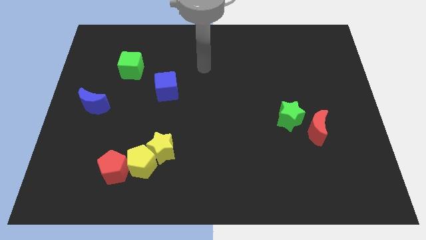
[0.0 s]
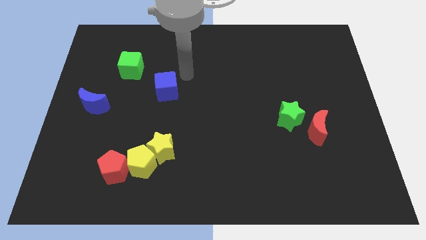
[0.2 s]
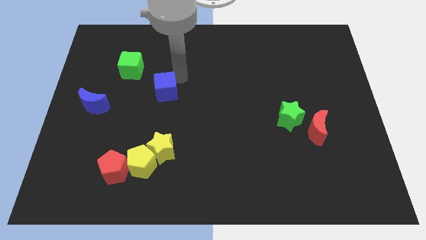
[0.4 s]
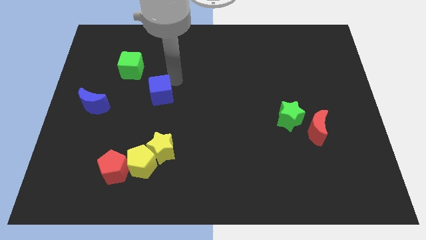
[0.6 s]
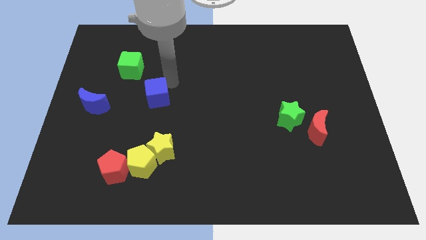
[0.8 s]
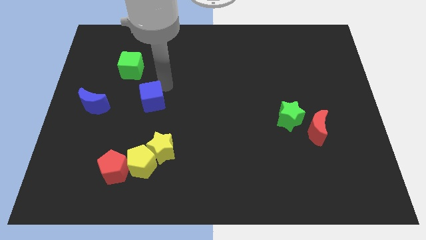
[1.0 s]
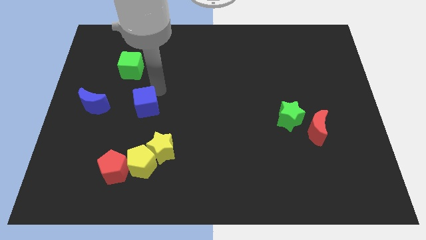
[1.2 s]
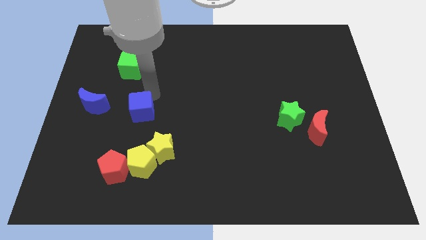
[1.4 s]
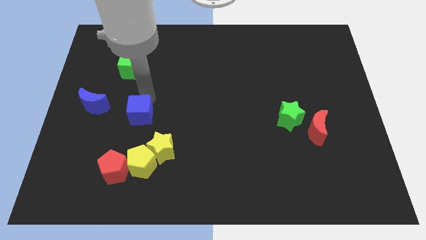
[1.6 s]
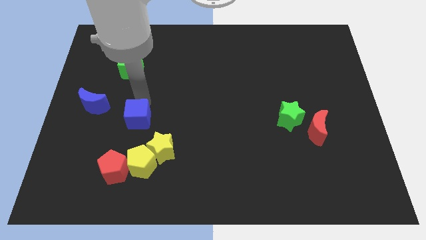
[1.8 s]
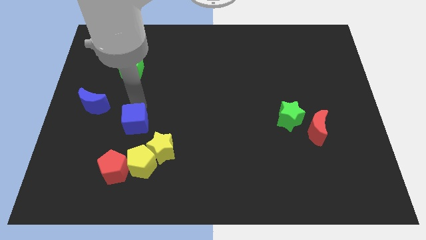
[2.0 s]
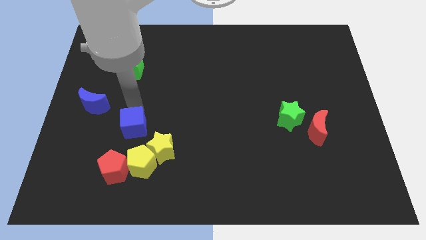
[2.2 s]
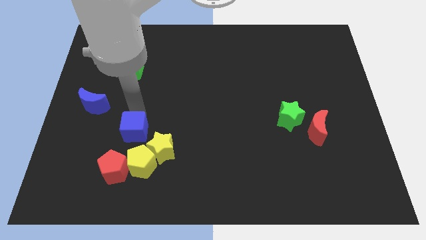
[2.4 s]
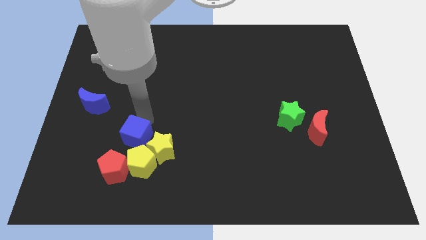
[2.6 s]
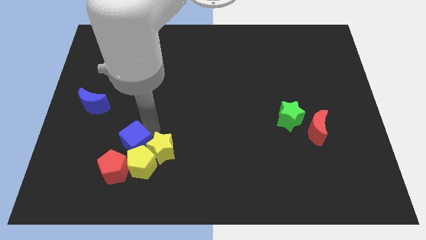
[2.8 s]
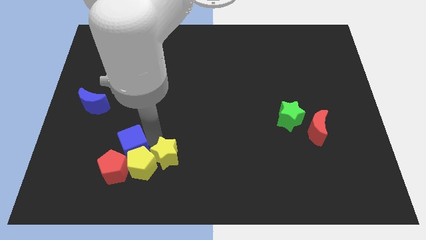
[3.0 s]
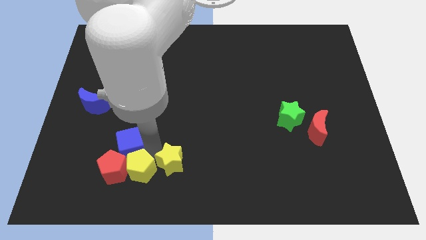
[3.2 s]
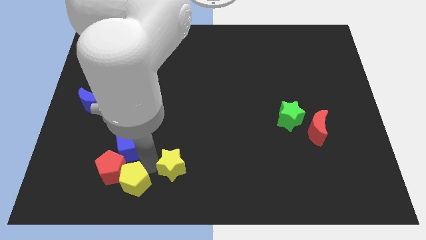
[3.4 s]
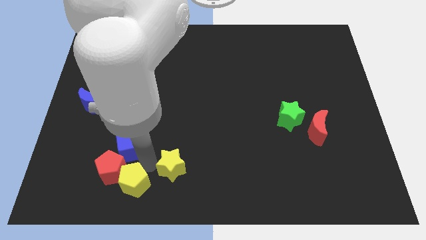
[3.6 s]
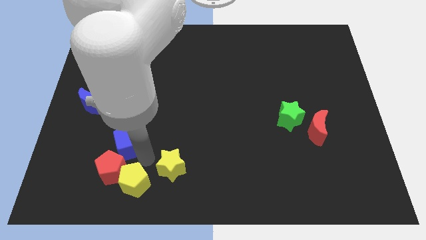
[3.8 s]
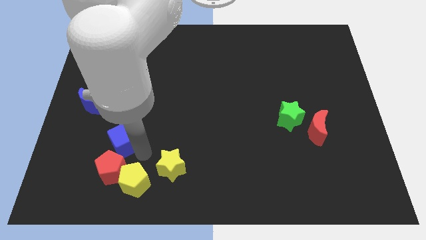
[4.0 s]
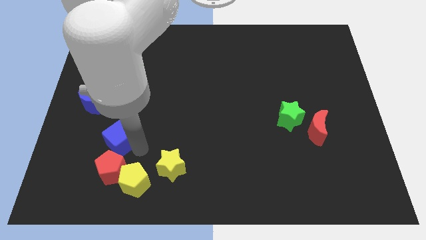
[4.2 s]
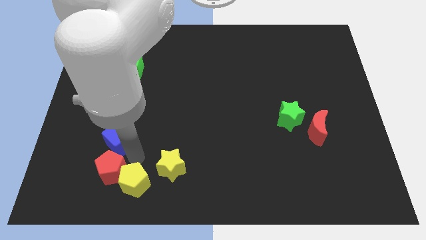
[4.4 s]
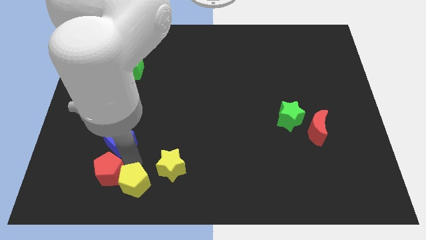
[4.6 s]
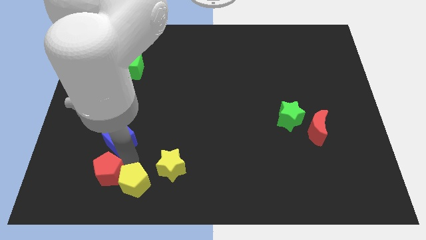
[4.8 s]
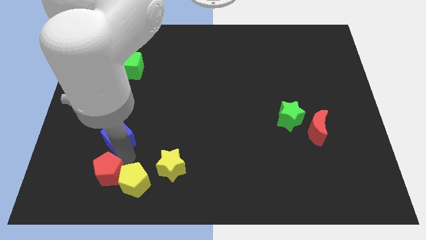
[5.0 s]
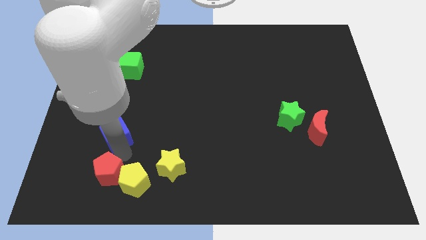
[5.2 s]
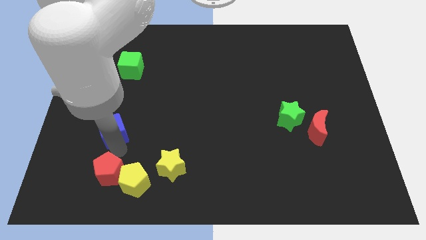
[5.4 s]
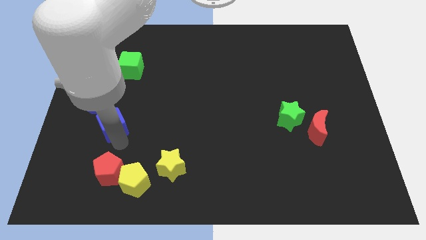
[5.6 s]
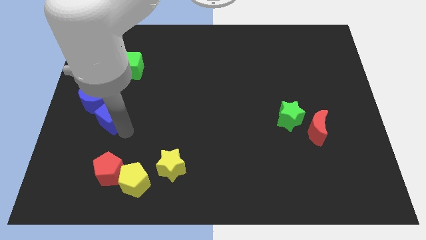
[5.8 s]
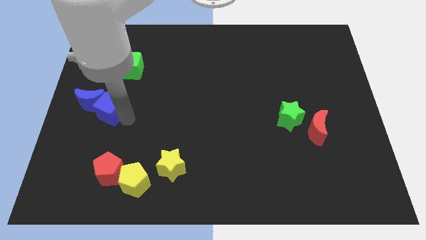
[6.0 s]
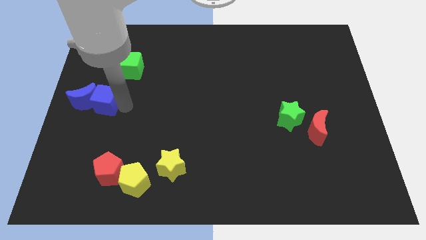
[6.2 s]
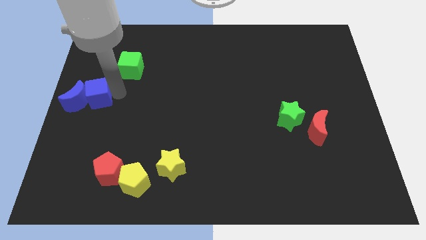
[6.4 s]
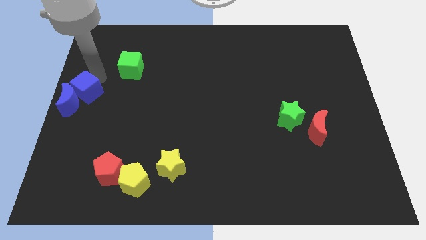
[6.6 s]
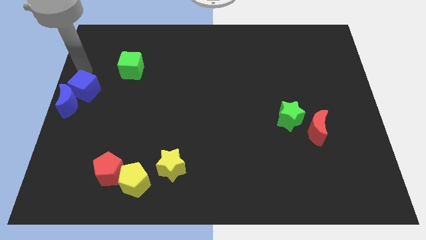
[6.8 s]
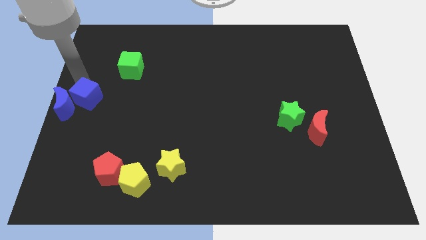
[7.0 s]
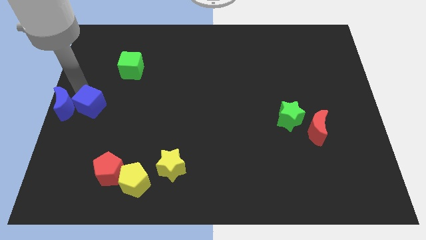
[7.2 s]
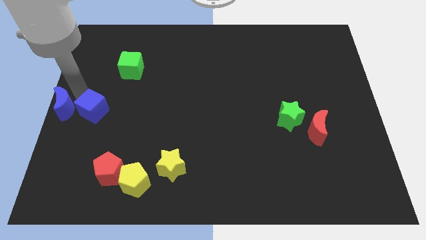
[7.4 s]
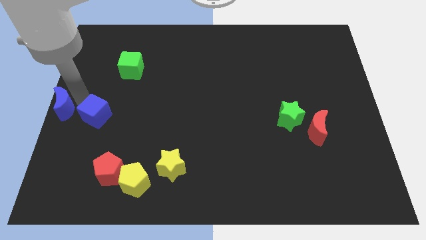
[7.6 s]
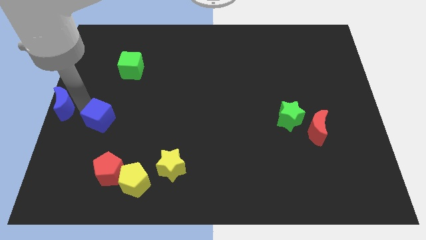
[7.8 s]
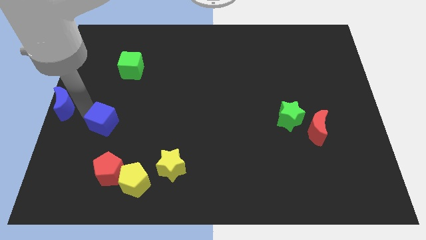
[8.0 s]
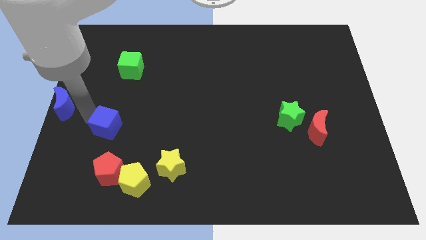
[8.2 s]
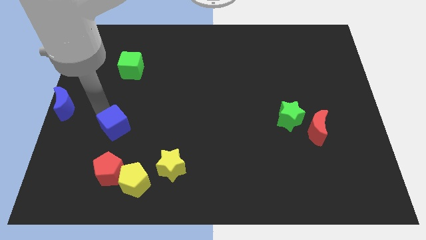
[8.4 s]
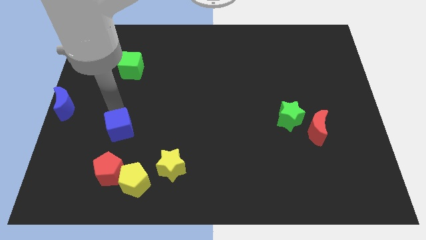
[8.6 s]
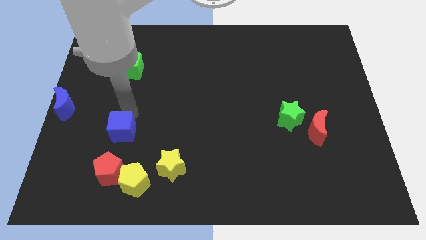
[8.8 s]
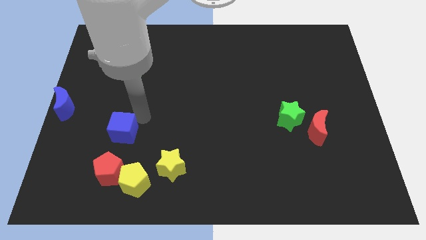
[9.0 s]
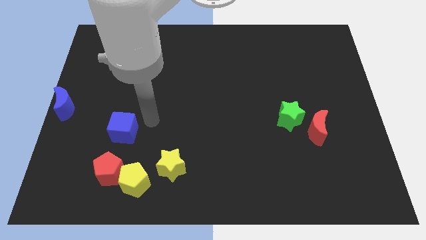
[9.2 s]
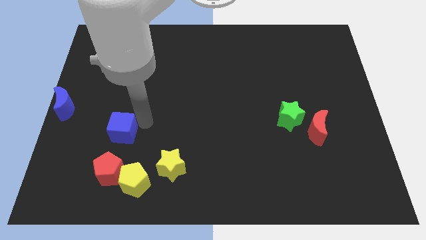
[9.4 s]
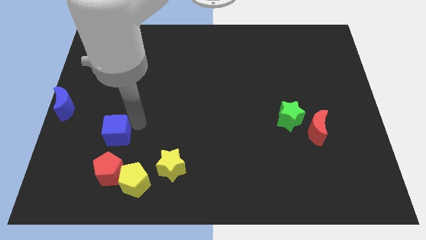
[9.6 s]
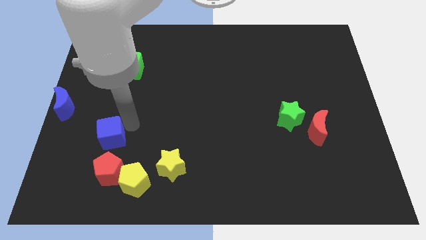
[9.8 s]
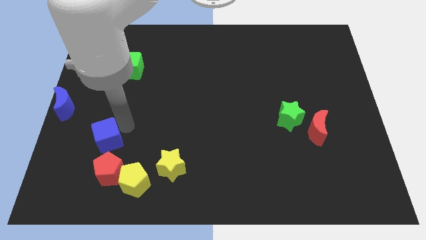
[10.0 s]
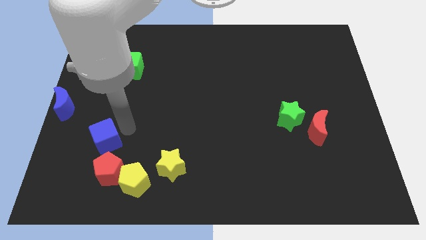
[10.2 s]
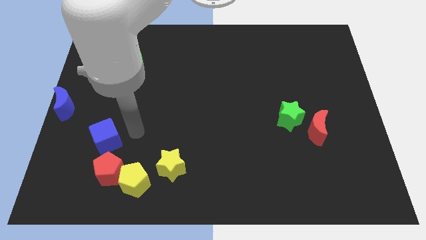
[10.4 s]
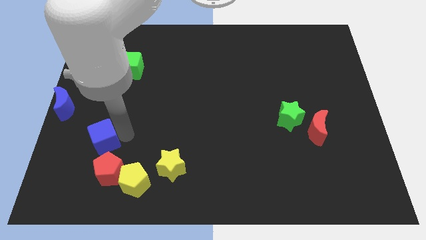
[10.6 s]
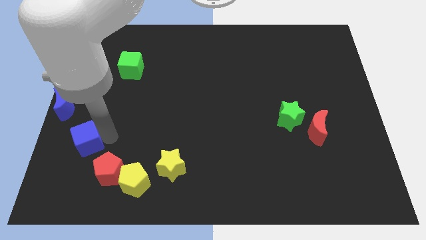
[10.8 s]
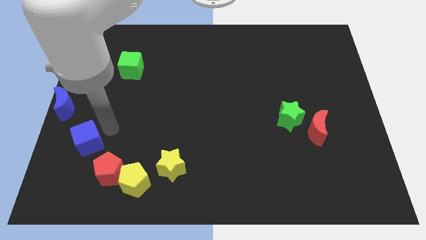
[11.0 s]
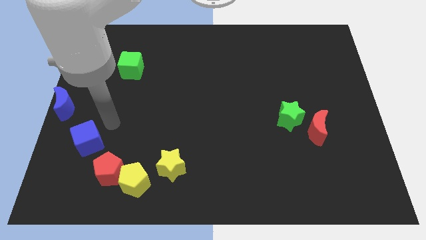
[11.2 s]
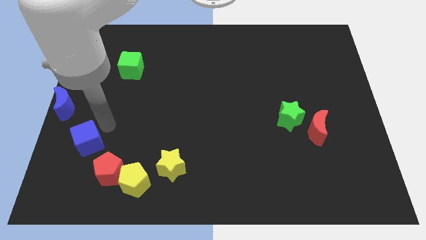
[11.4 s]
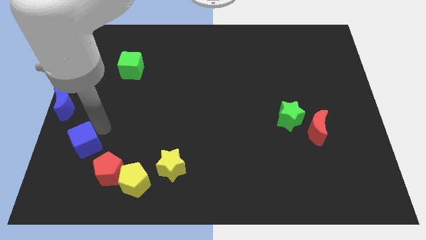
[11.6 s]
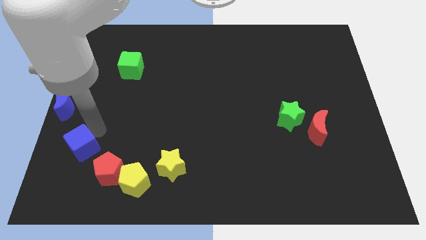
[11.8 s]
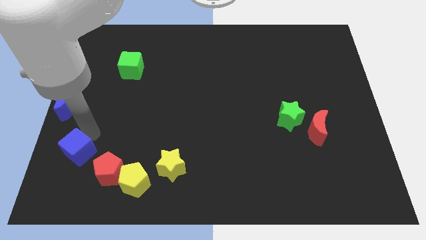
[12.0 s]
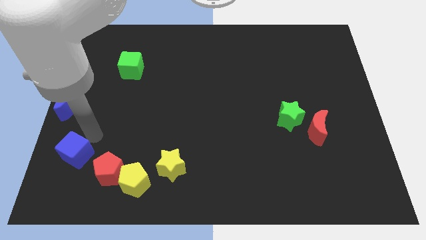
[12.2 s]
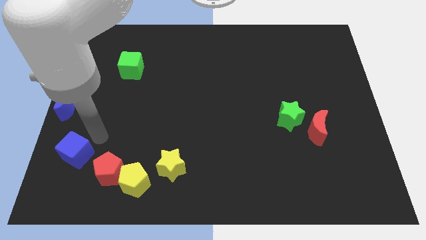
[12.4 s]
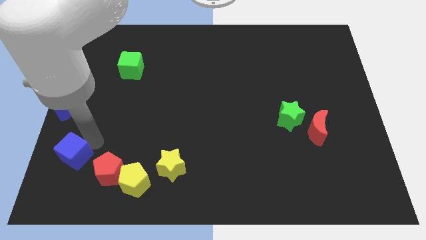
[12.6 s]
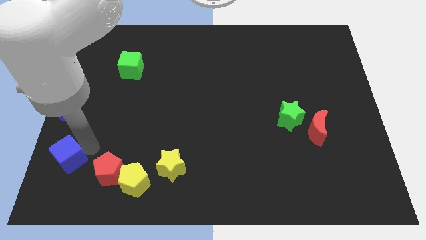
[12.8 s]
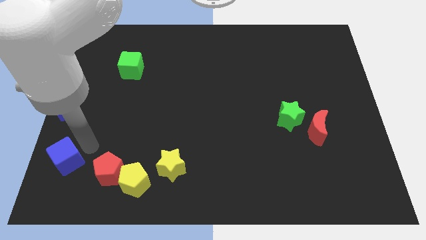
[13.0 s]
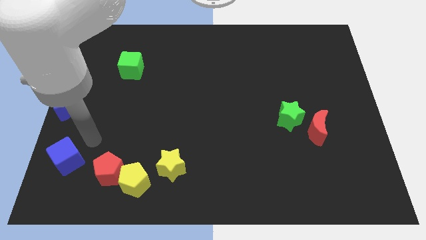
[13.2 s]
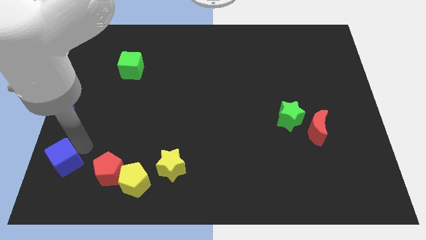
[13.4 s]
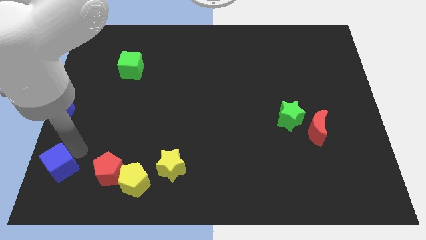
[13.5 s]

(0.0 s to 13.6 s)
slide the blue cube to the lower left corner
